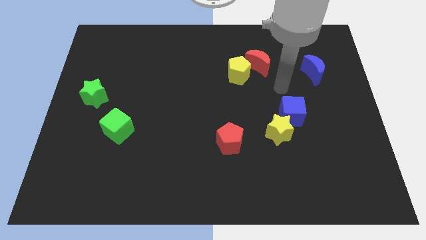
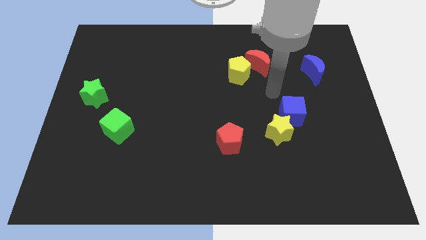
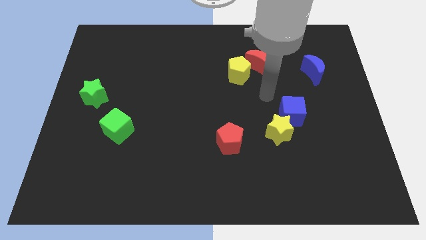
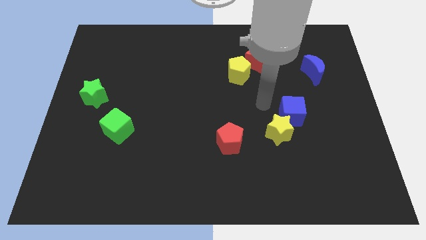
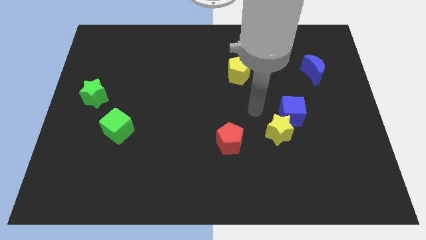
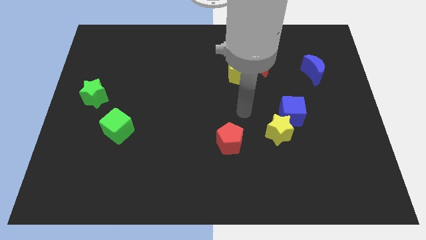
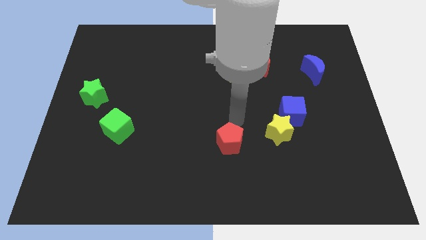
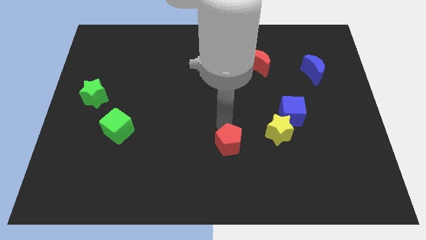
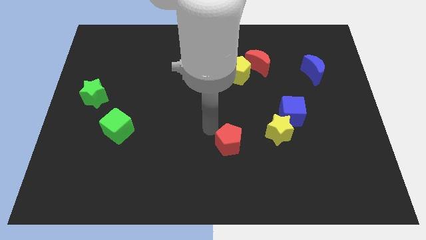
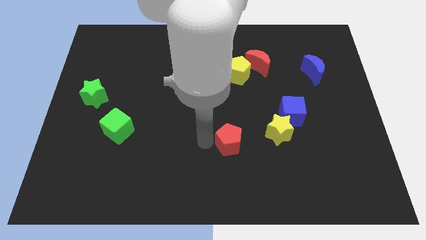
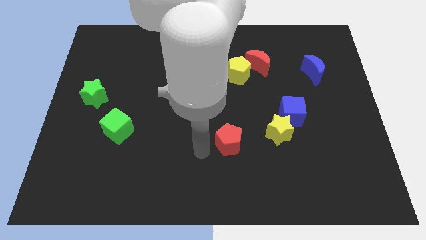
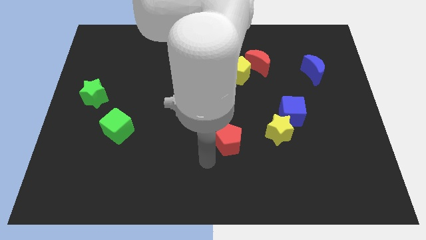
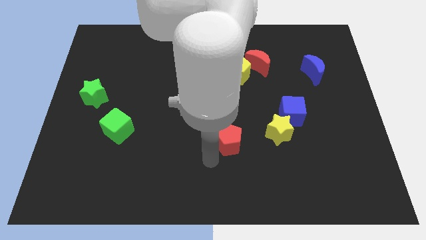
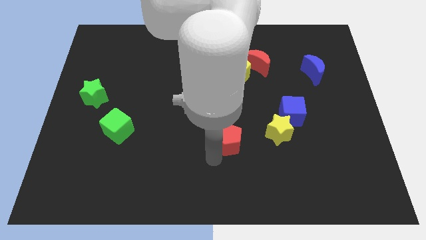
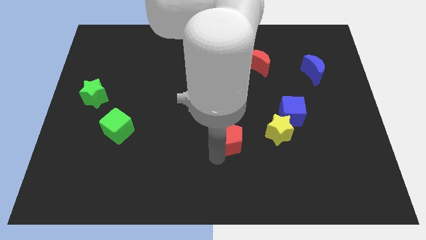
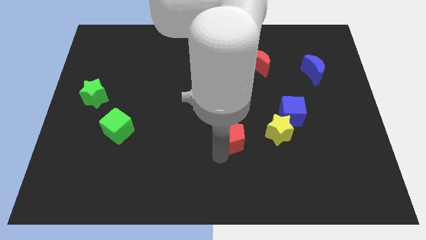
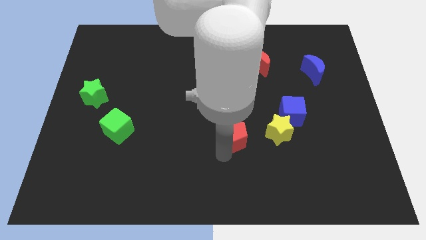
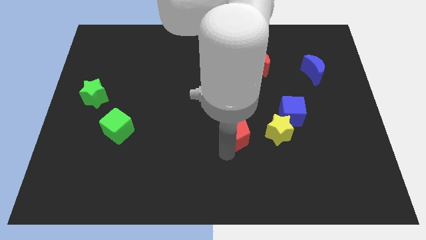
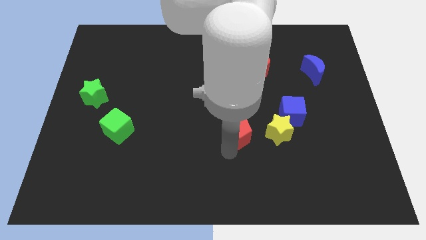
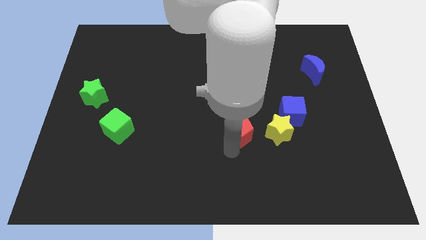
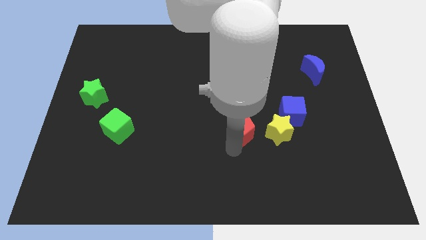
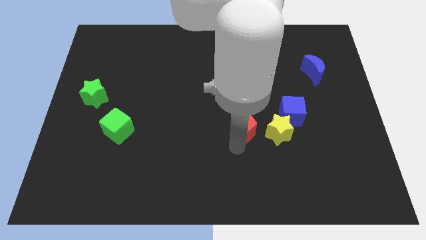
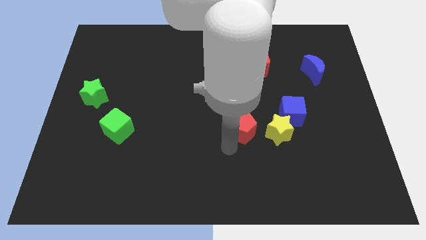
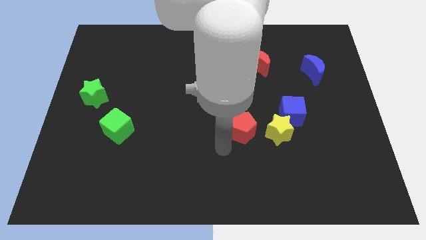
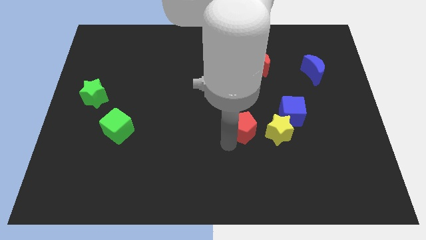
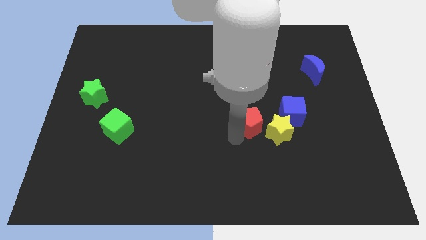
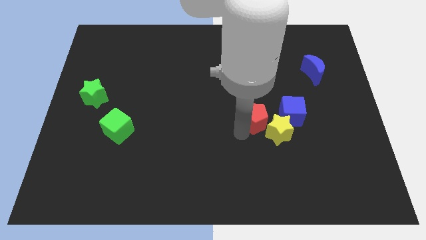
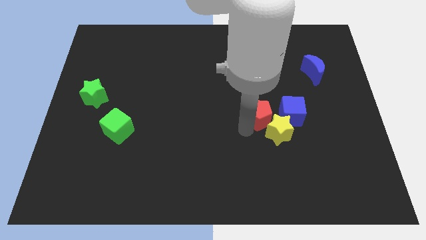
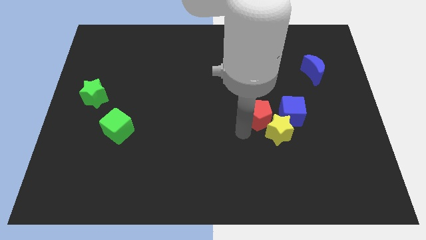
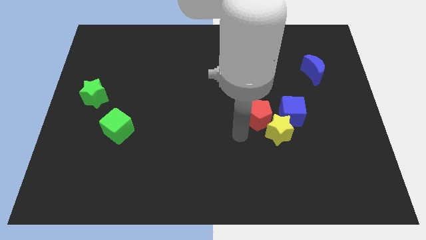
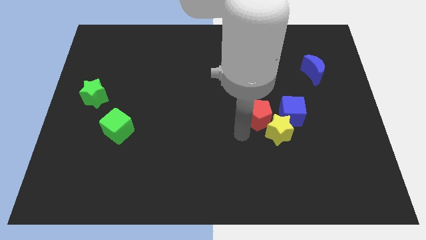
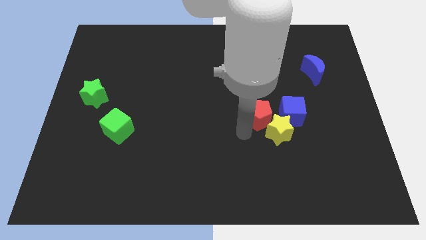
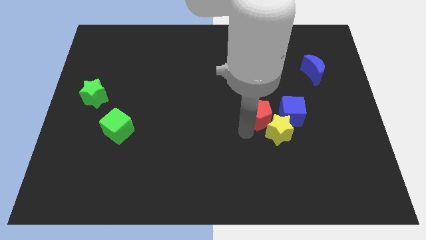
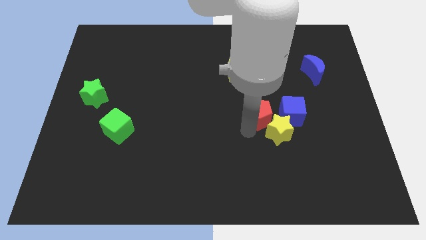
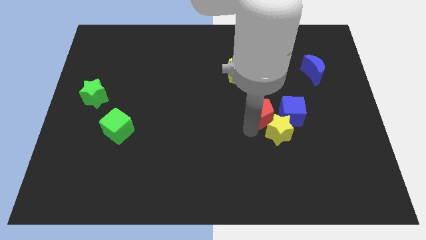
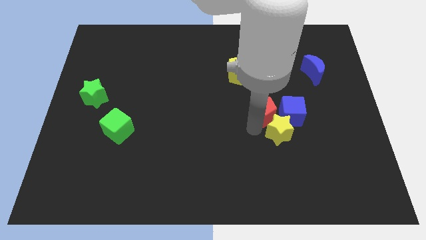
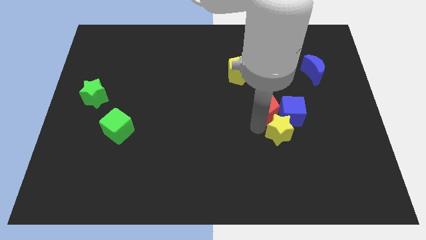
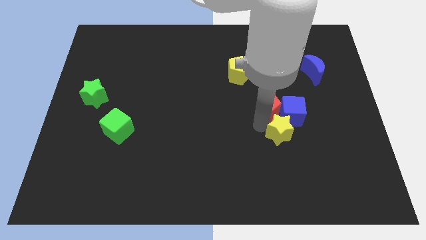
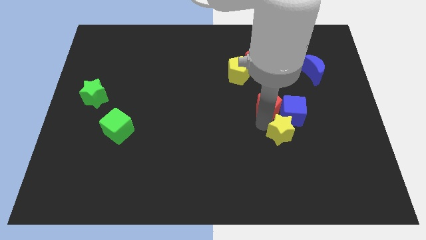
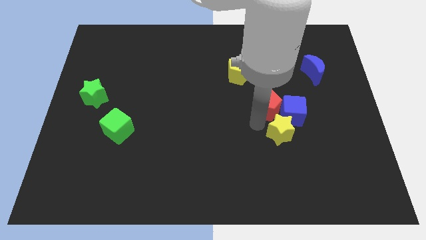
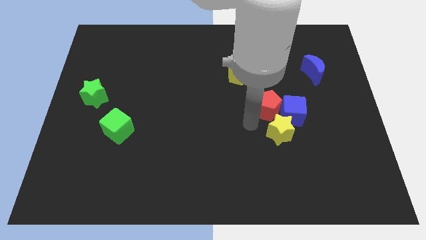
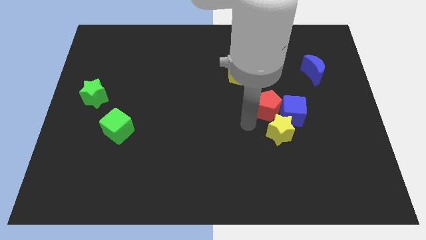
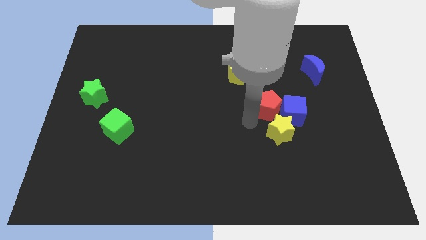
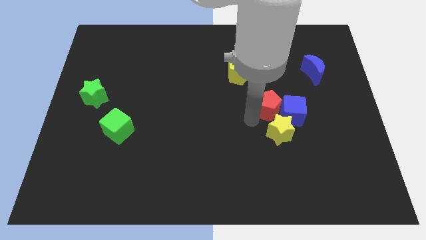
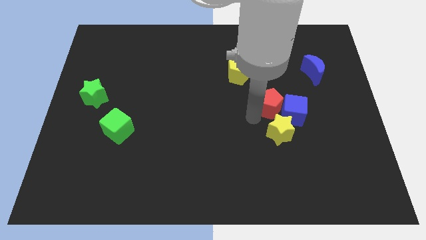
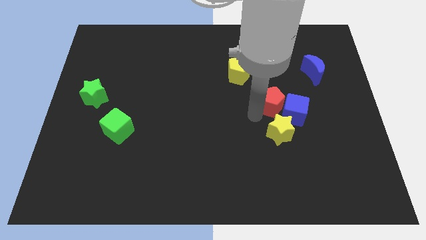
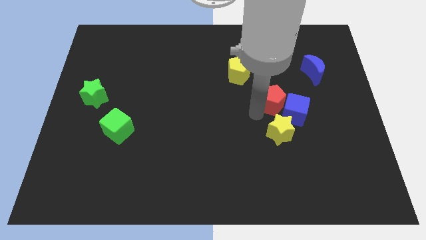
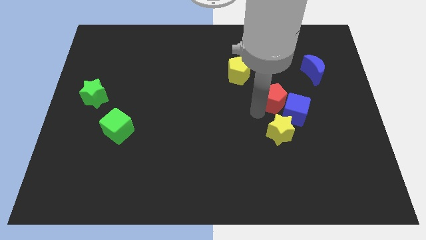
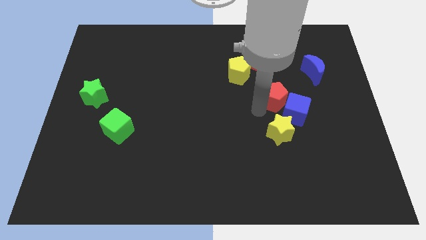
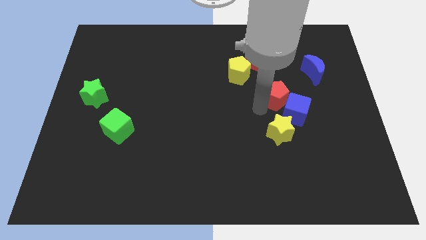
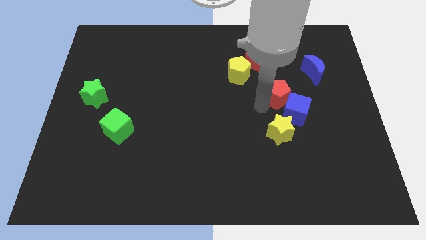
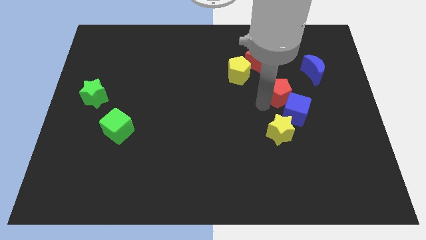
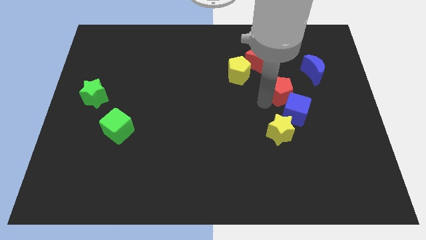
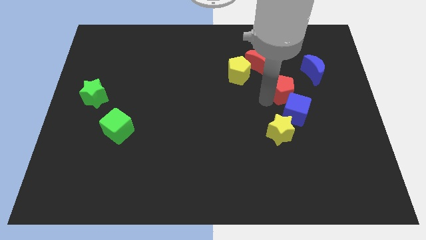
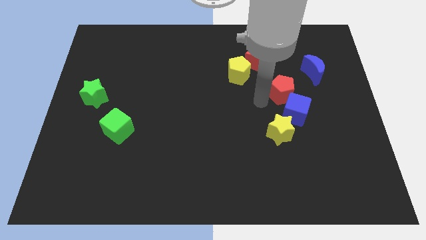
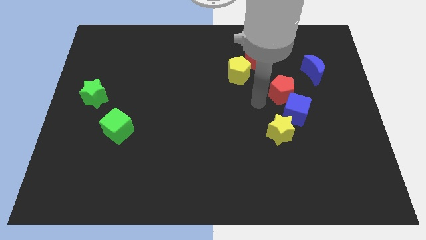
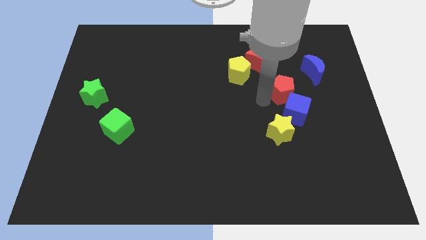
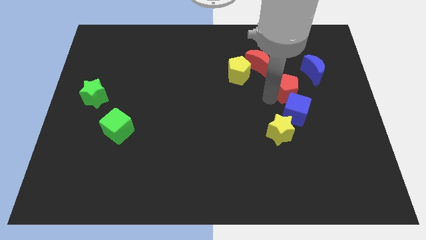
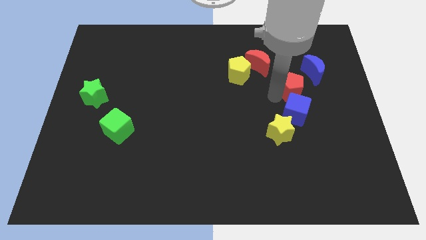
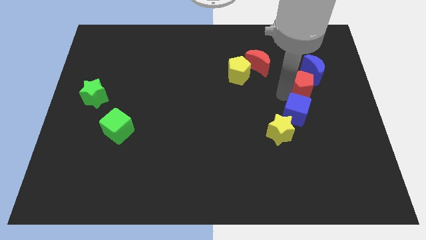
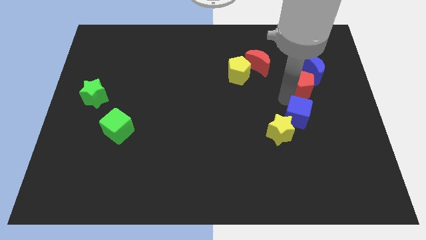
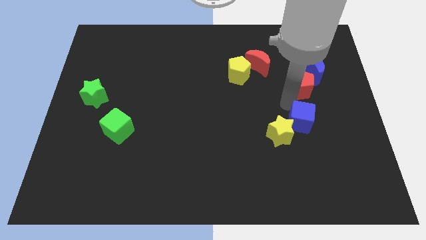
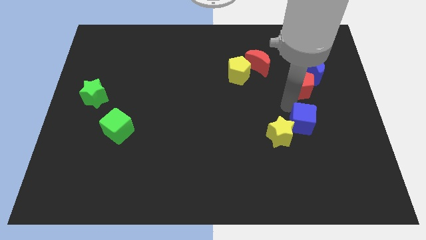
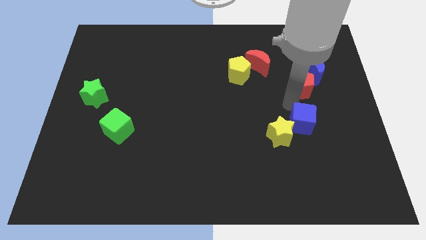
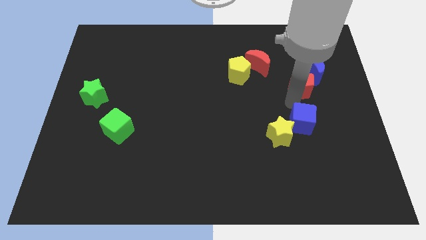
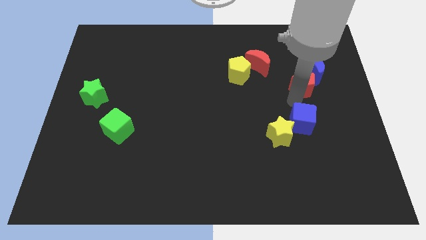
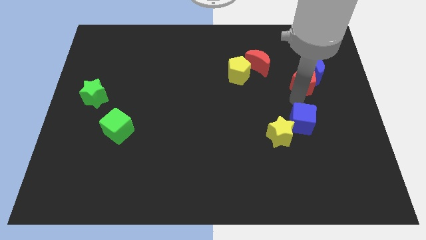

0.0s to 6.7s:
push the red pentagon towards the blue moon

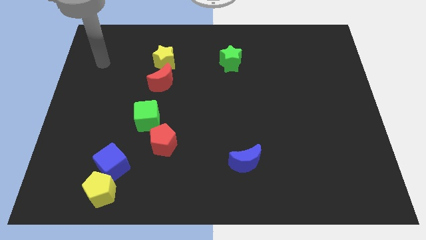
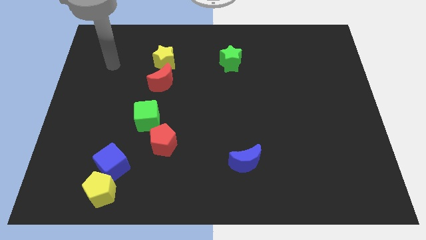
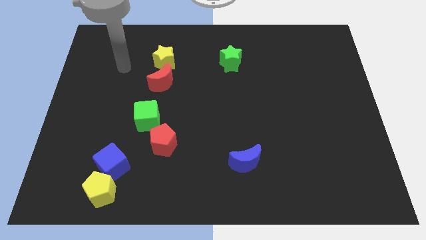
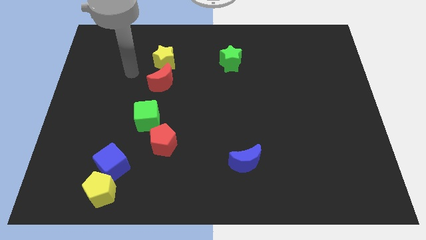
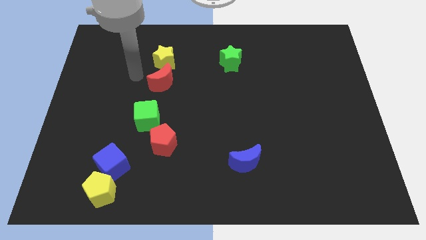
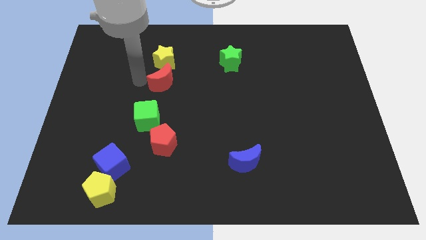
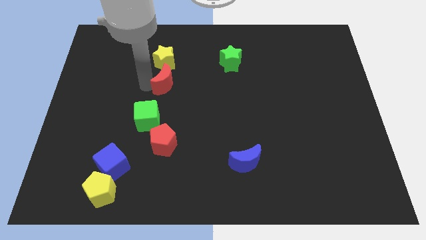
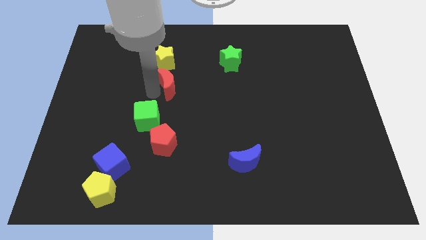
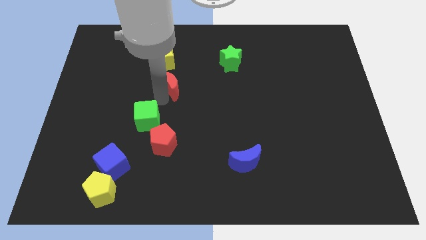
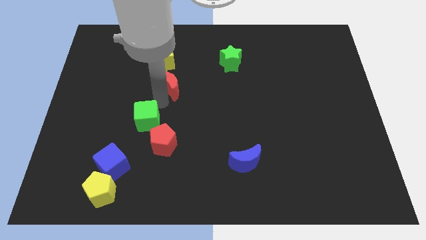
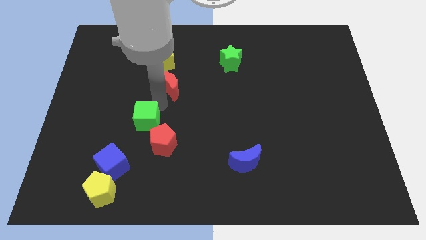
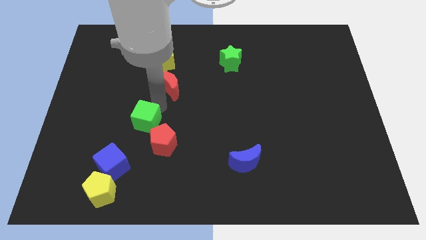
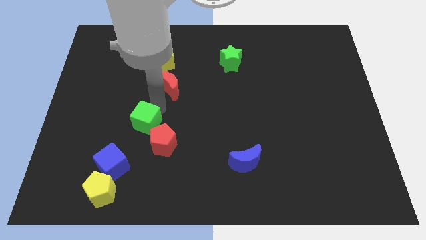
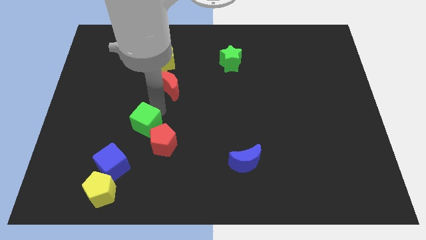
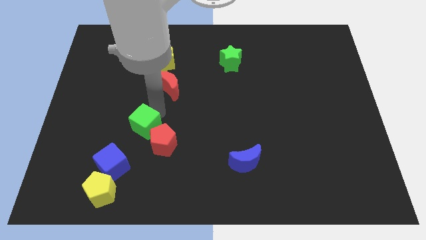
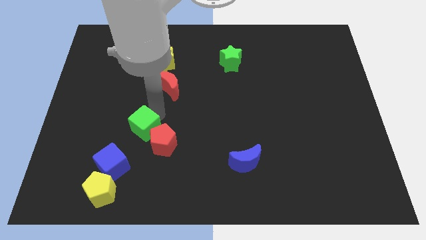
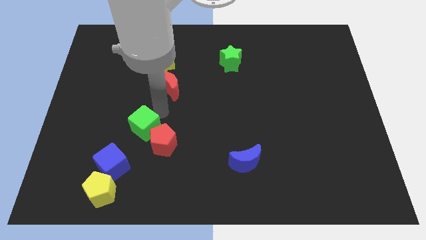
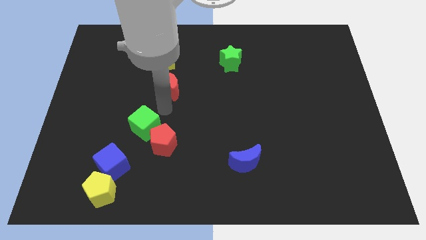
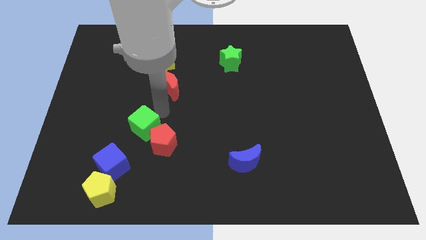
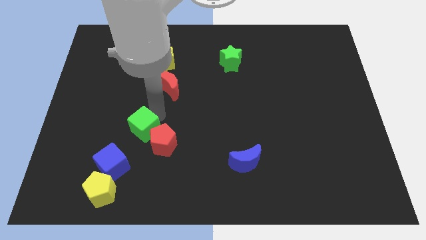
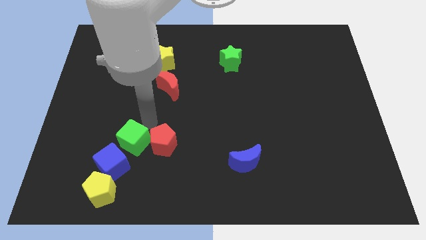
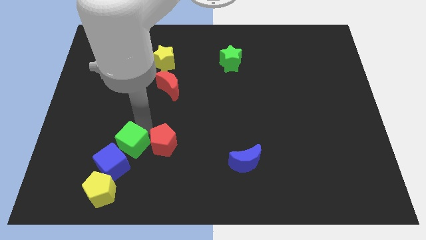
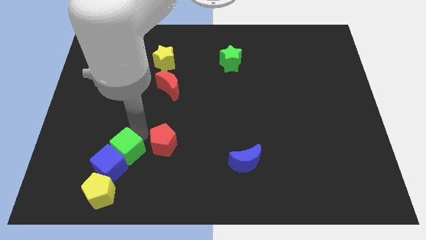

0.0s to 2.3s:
put the green cube next to the blue cube
